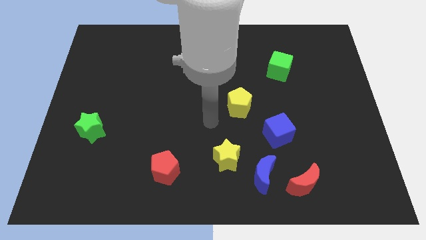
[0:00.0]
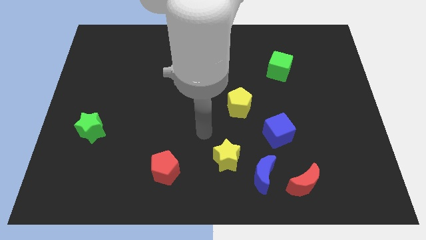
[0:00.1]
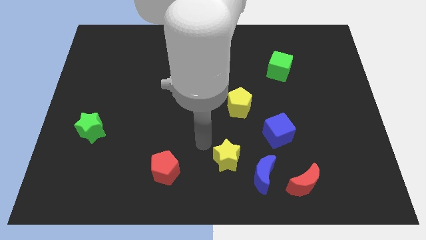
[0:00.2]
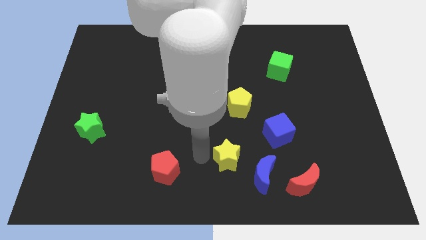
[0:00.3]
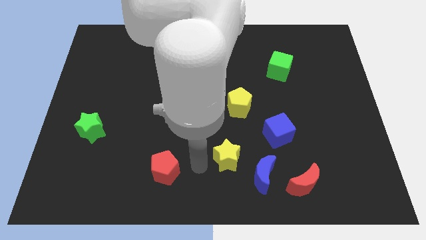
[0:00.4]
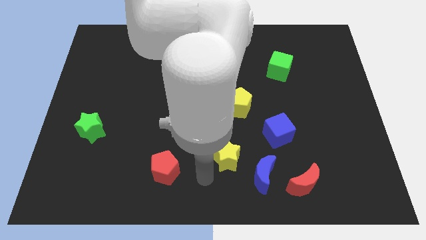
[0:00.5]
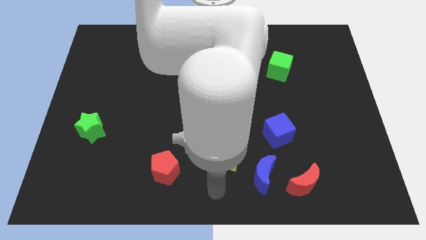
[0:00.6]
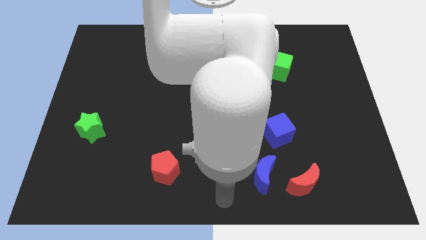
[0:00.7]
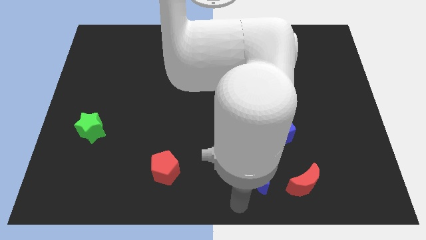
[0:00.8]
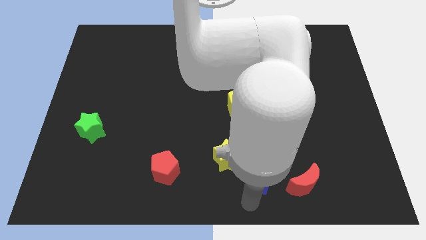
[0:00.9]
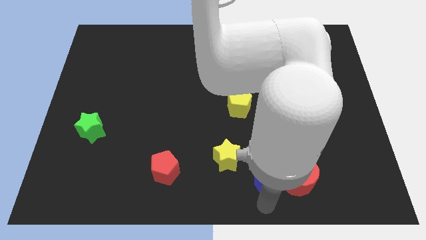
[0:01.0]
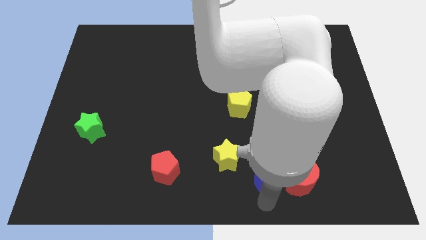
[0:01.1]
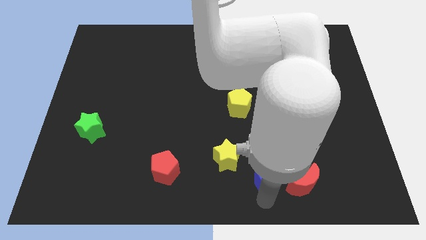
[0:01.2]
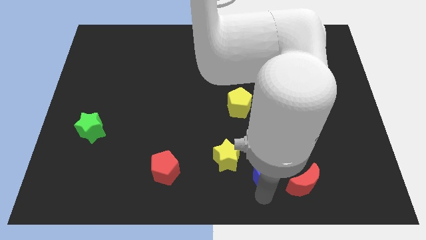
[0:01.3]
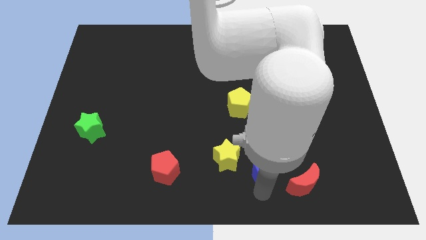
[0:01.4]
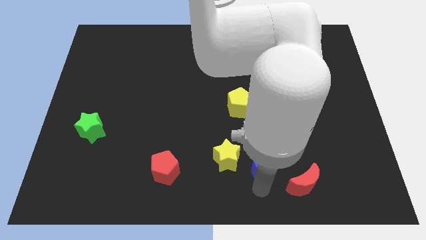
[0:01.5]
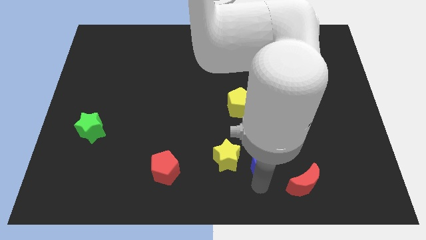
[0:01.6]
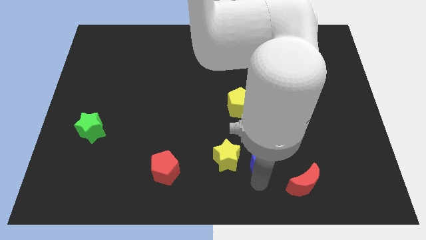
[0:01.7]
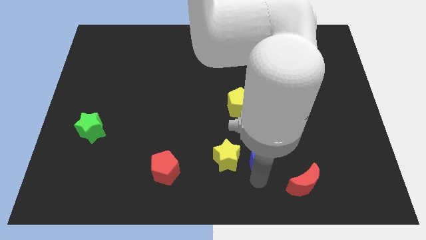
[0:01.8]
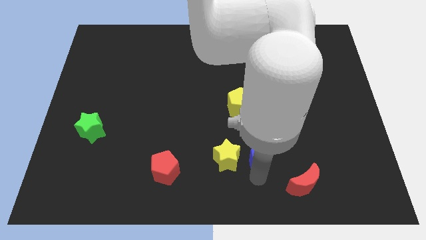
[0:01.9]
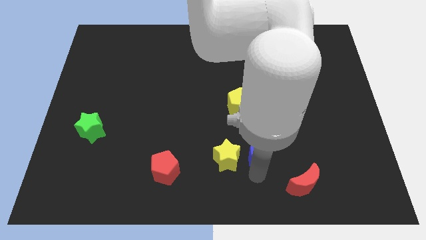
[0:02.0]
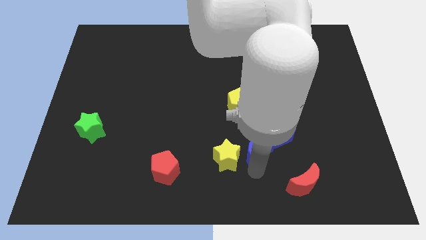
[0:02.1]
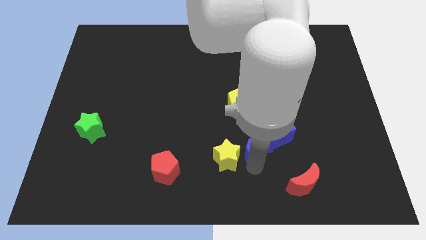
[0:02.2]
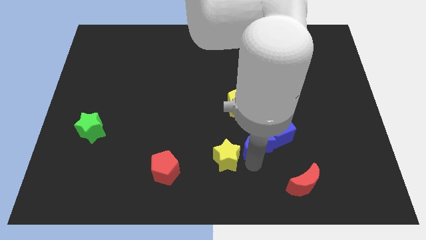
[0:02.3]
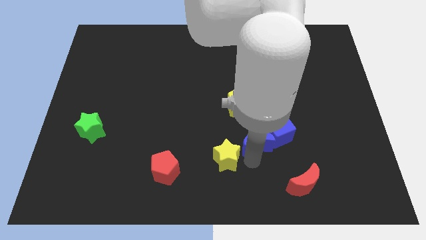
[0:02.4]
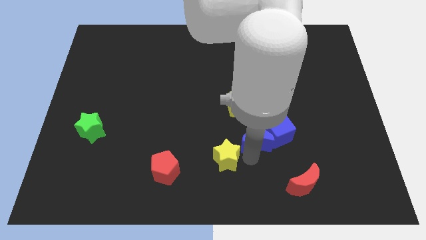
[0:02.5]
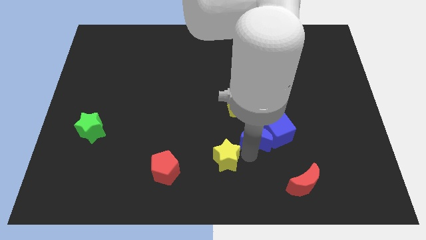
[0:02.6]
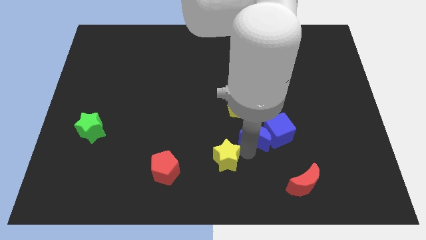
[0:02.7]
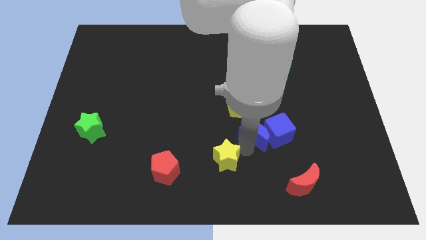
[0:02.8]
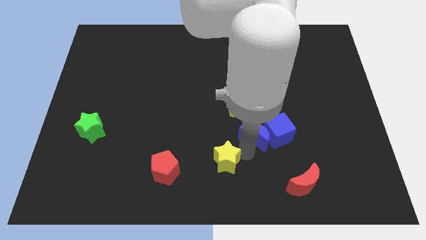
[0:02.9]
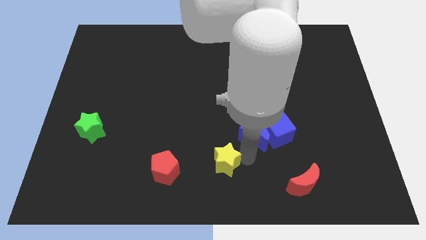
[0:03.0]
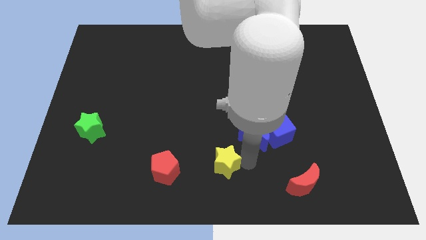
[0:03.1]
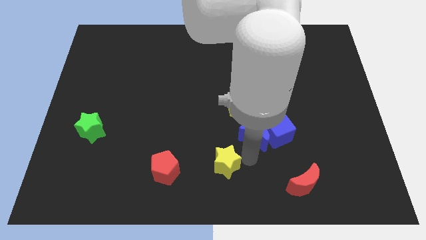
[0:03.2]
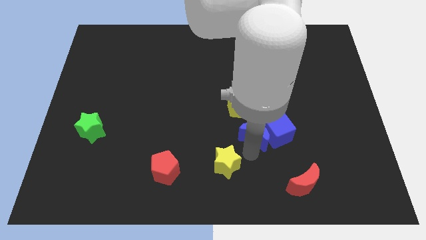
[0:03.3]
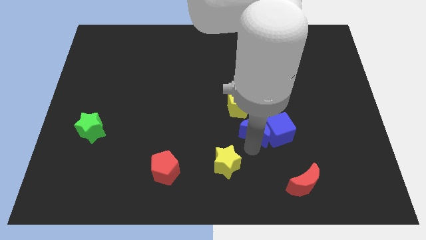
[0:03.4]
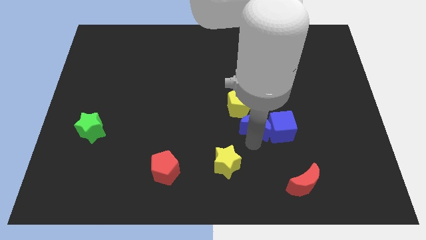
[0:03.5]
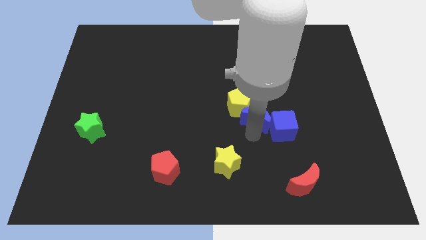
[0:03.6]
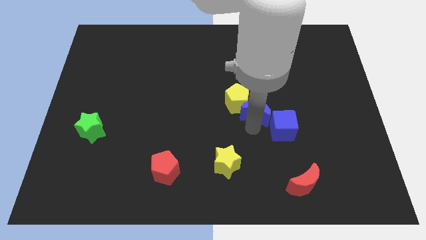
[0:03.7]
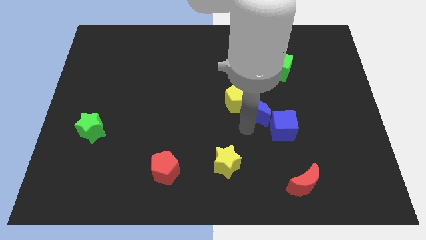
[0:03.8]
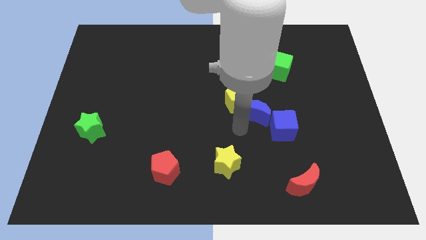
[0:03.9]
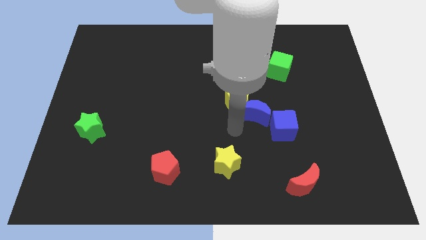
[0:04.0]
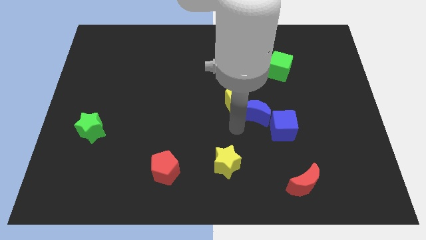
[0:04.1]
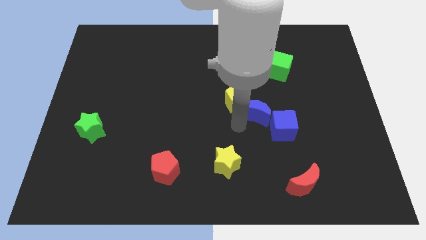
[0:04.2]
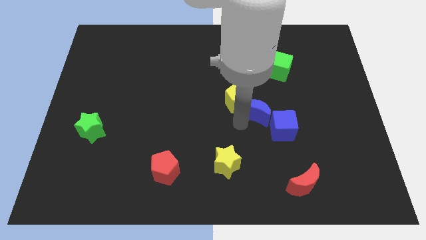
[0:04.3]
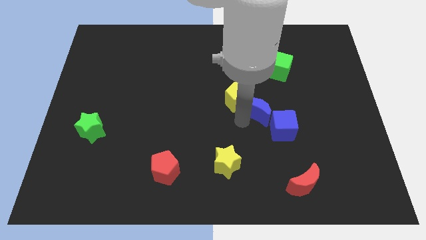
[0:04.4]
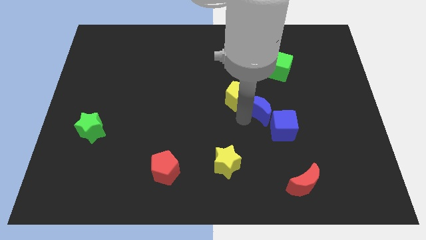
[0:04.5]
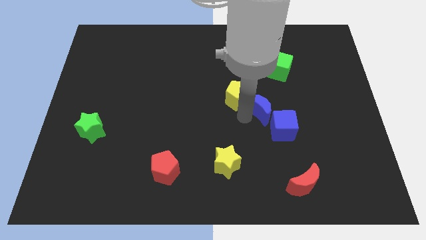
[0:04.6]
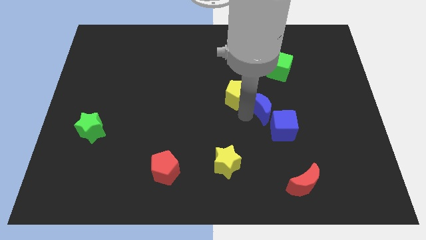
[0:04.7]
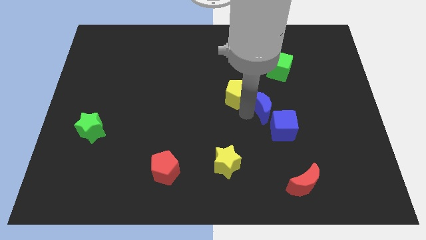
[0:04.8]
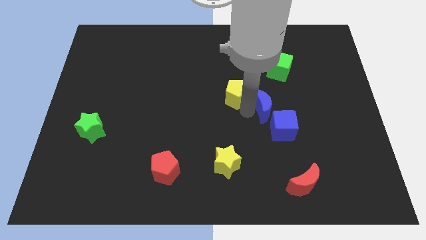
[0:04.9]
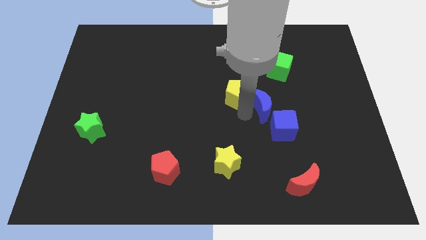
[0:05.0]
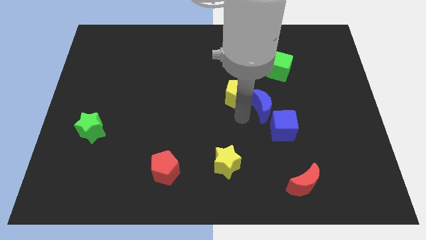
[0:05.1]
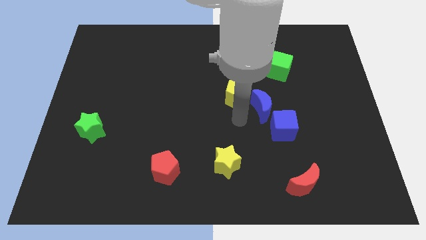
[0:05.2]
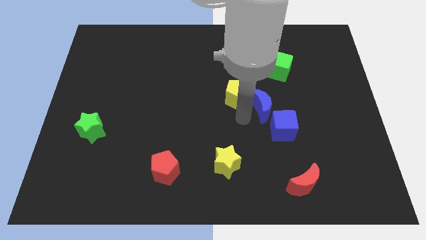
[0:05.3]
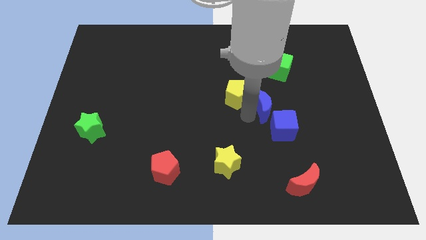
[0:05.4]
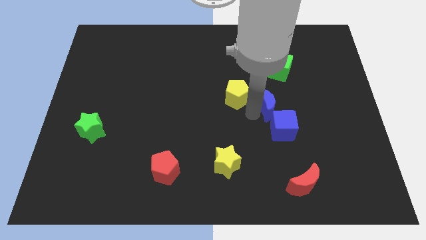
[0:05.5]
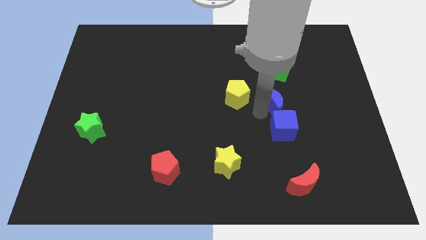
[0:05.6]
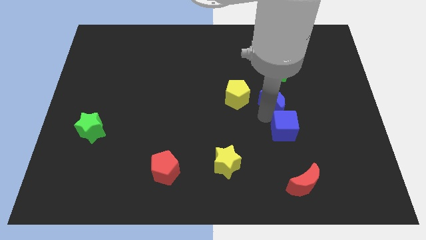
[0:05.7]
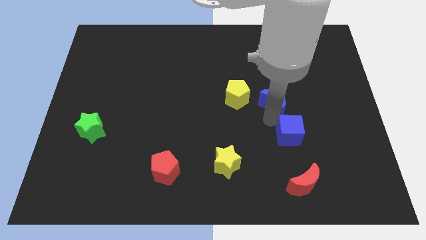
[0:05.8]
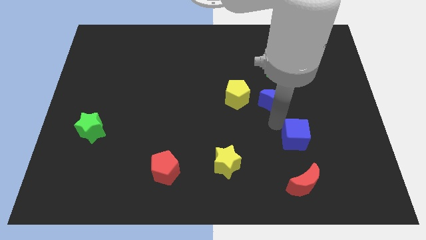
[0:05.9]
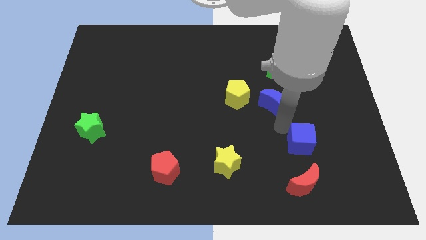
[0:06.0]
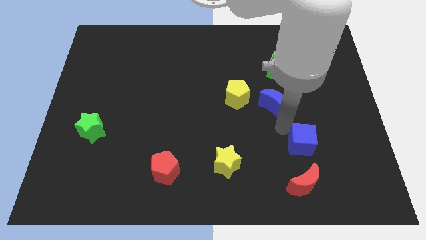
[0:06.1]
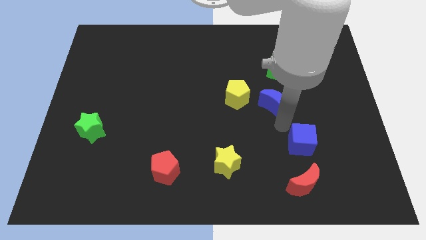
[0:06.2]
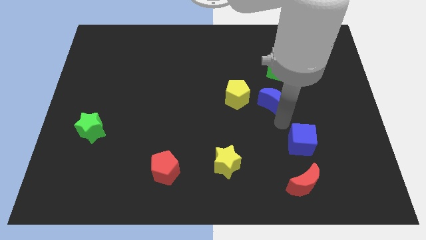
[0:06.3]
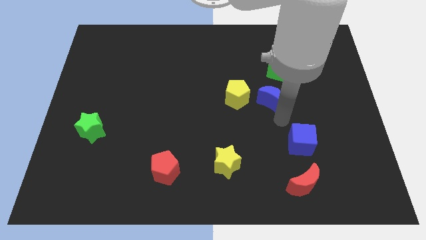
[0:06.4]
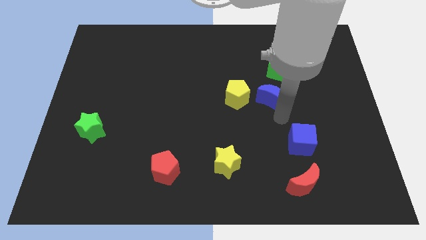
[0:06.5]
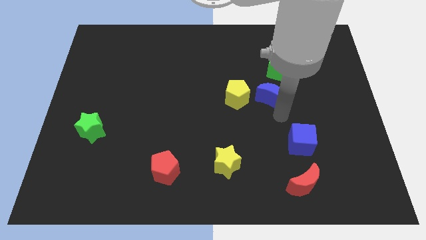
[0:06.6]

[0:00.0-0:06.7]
move the blue moon upwards

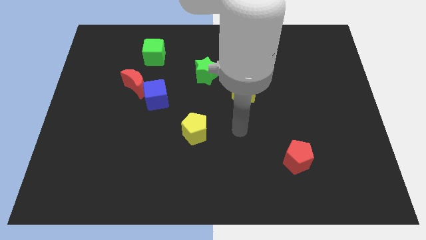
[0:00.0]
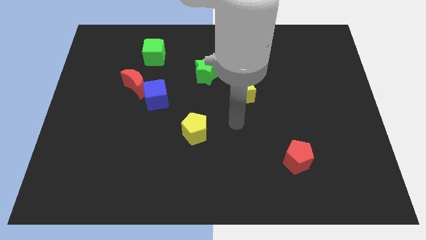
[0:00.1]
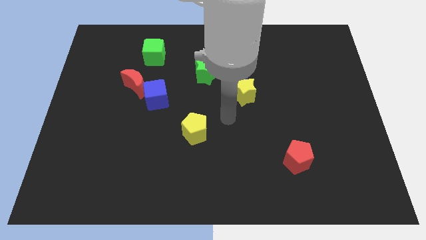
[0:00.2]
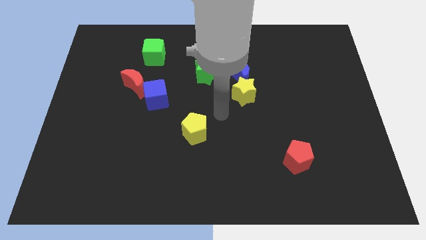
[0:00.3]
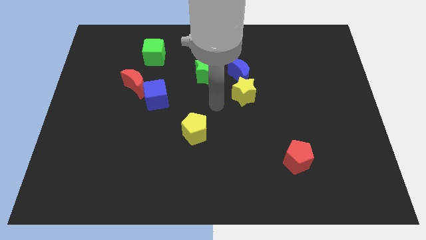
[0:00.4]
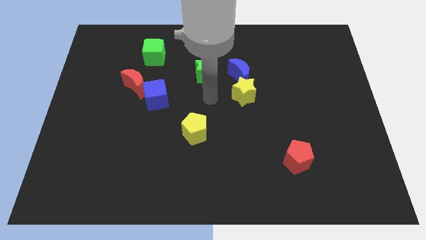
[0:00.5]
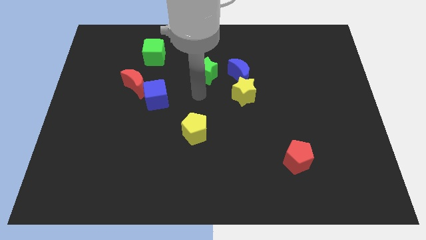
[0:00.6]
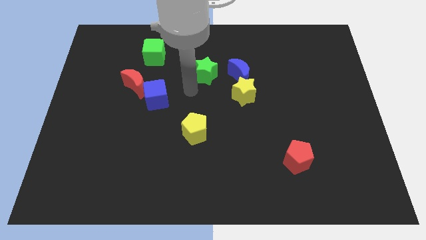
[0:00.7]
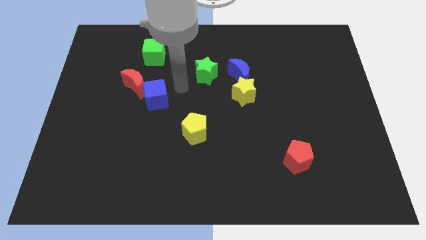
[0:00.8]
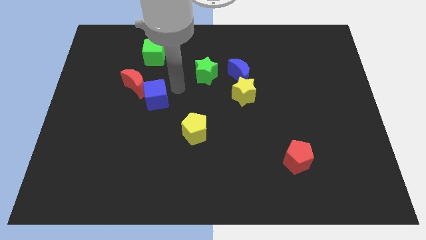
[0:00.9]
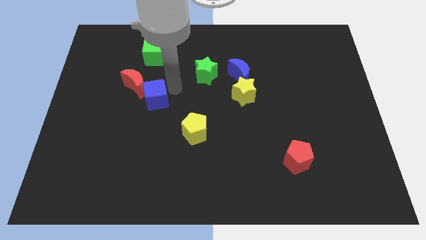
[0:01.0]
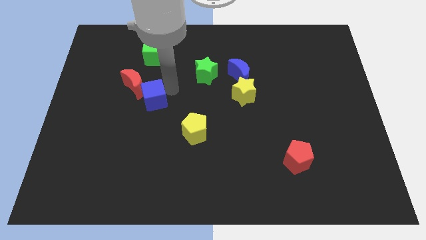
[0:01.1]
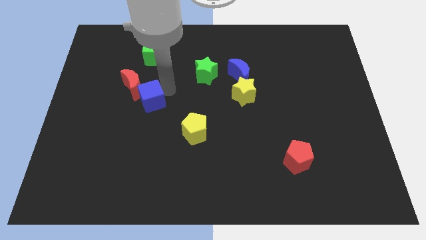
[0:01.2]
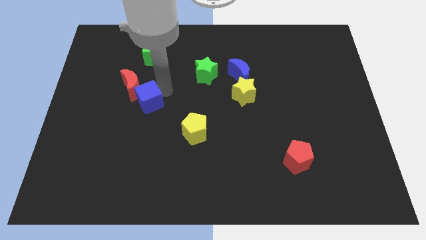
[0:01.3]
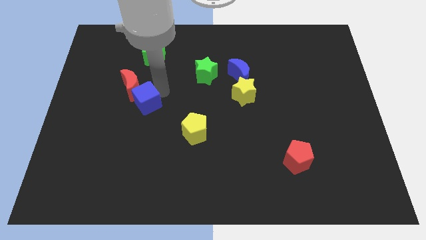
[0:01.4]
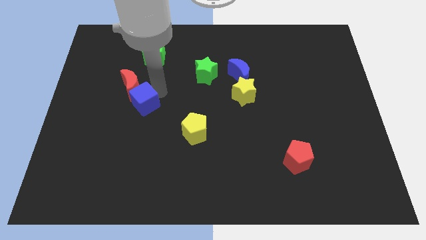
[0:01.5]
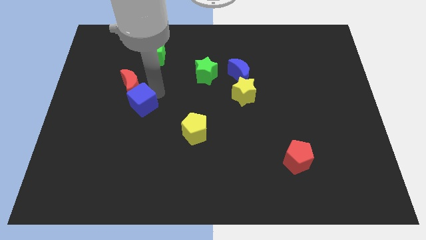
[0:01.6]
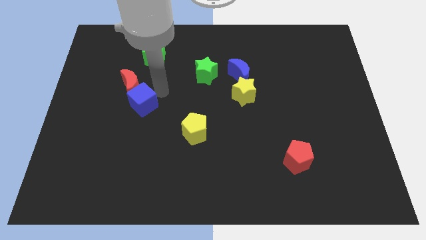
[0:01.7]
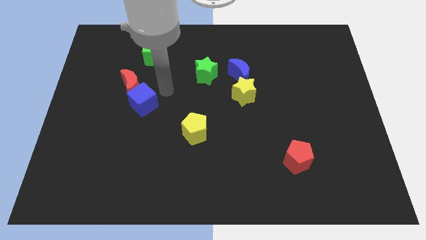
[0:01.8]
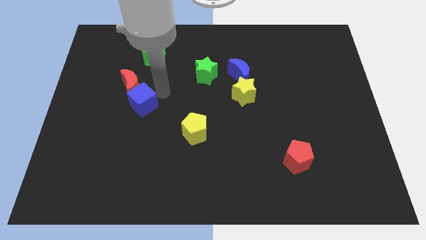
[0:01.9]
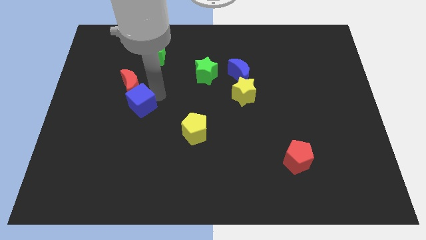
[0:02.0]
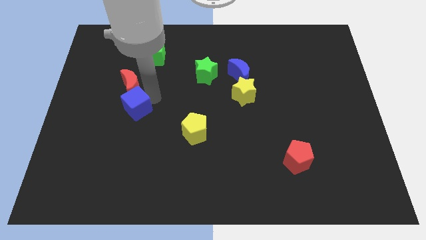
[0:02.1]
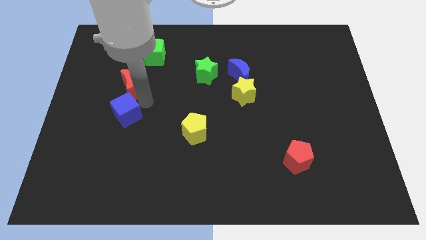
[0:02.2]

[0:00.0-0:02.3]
slide the blue cube down and then left a little
